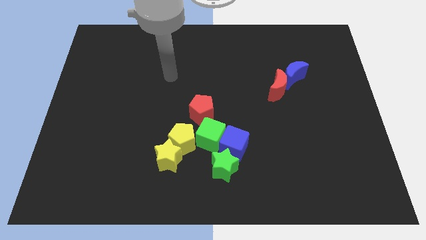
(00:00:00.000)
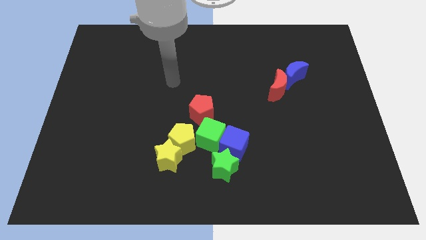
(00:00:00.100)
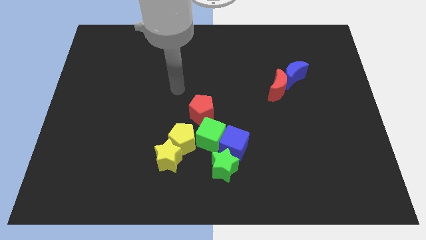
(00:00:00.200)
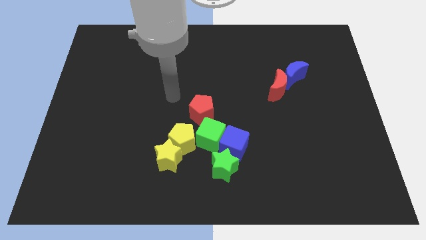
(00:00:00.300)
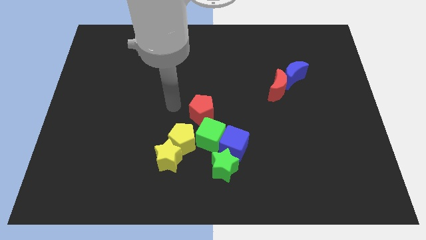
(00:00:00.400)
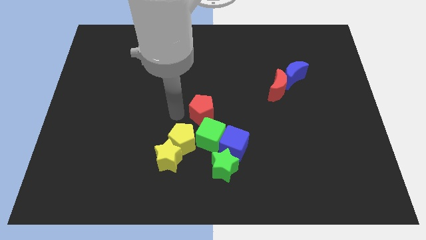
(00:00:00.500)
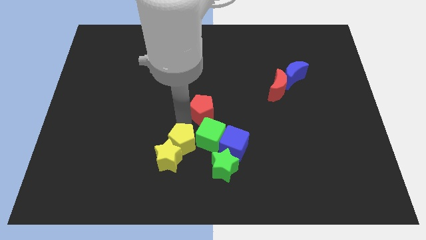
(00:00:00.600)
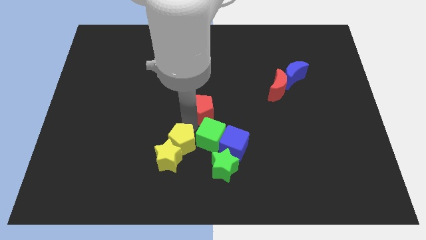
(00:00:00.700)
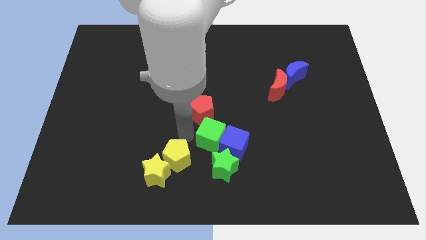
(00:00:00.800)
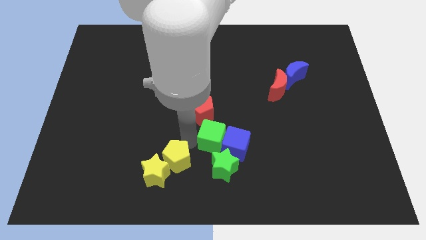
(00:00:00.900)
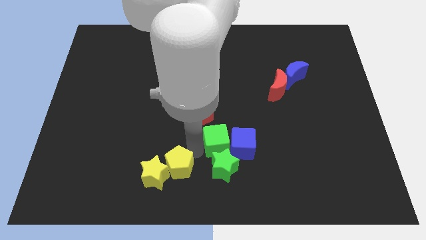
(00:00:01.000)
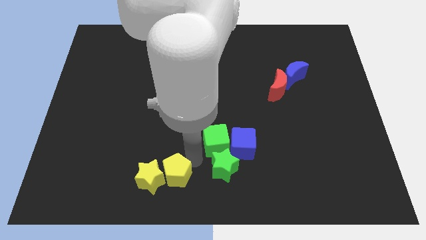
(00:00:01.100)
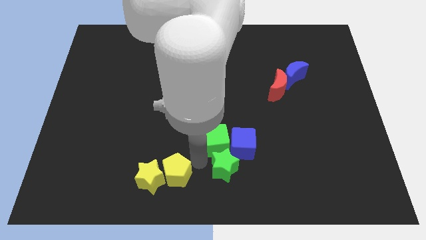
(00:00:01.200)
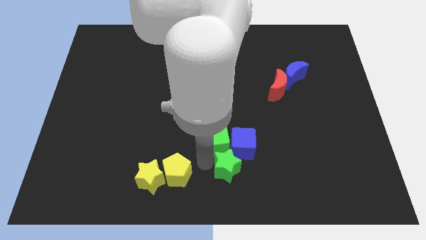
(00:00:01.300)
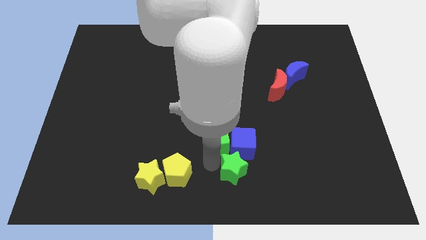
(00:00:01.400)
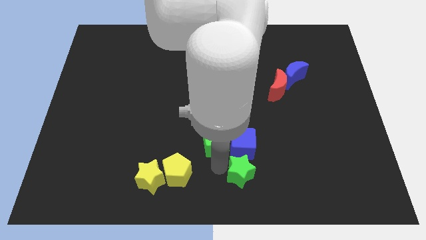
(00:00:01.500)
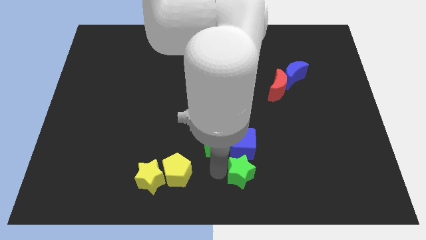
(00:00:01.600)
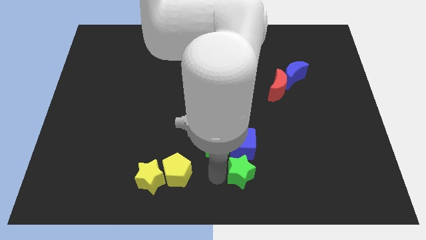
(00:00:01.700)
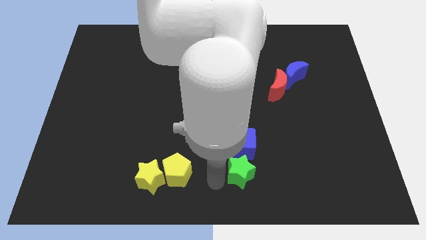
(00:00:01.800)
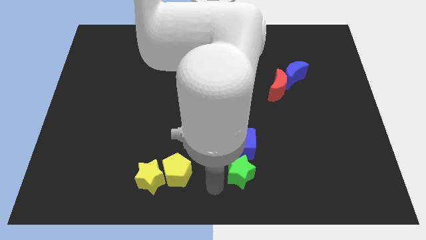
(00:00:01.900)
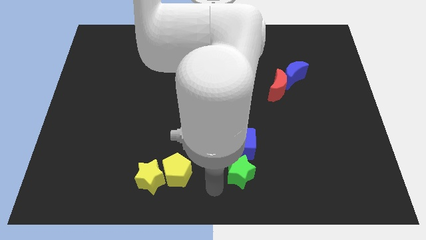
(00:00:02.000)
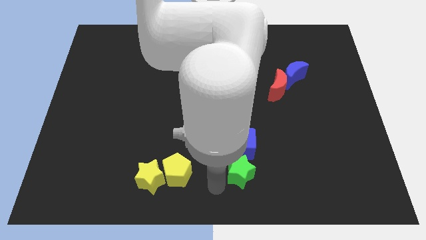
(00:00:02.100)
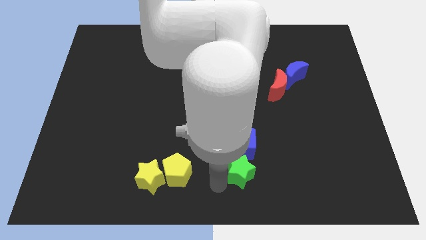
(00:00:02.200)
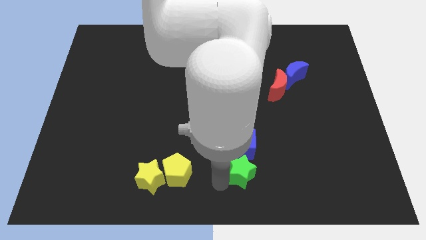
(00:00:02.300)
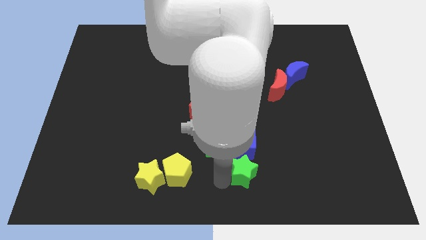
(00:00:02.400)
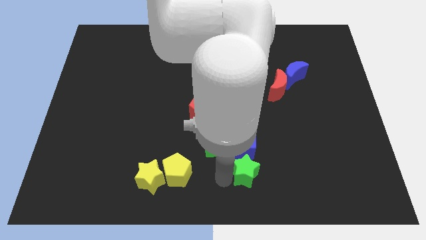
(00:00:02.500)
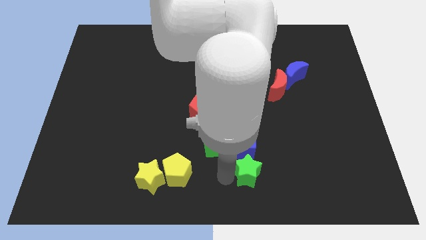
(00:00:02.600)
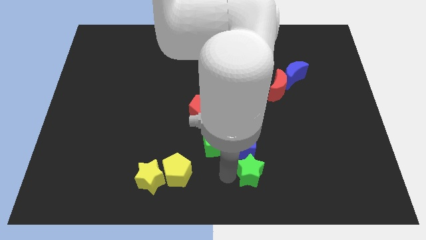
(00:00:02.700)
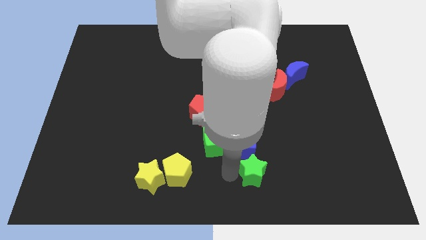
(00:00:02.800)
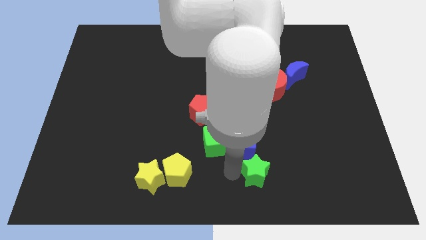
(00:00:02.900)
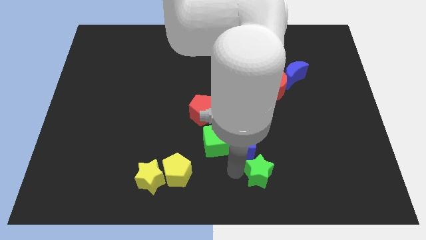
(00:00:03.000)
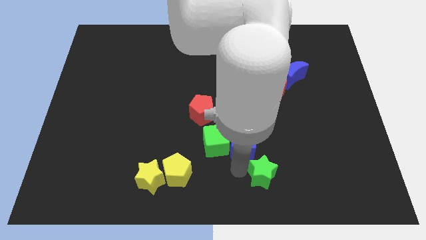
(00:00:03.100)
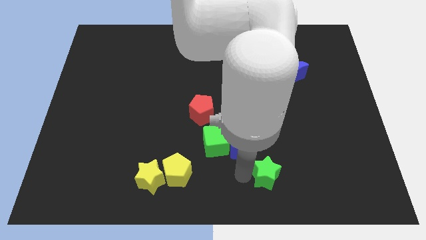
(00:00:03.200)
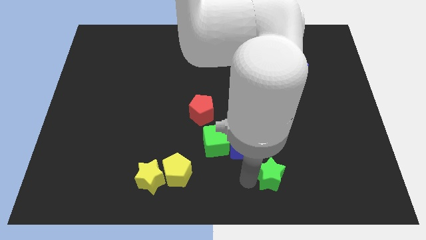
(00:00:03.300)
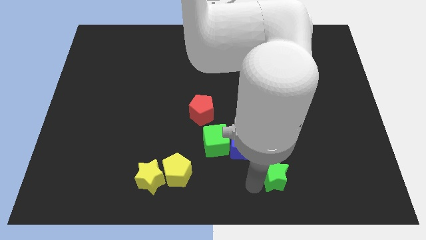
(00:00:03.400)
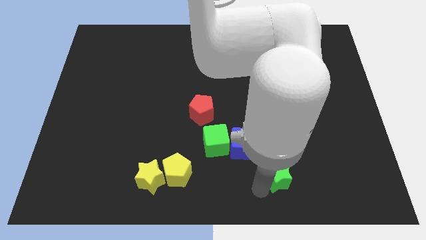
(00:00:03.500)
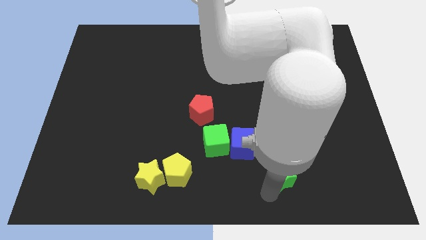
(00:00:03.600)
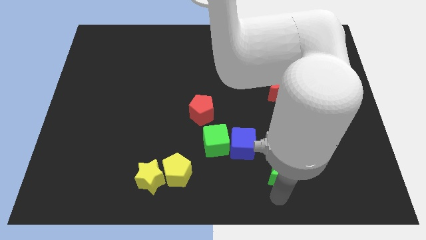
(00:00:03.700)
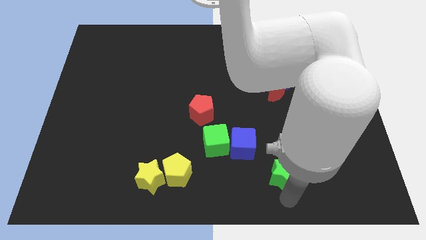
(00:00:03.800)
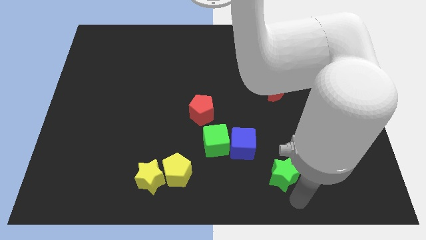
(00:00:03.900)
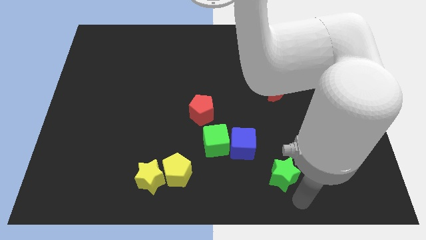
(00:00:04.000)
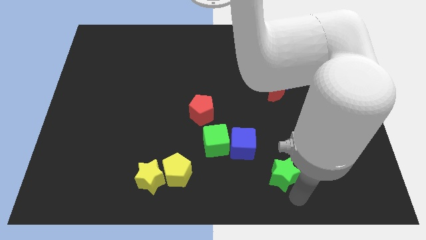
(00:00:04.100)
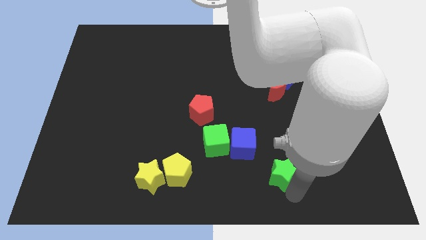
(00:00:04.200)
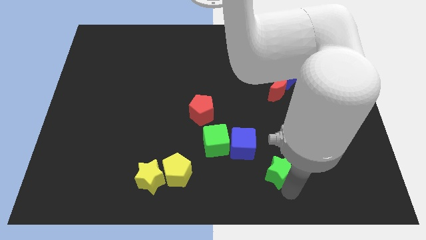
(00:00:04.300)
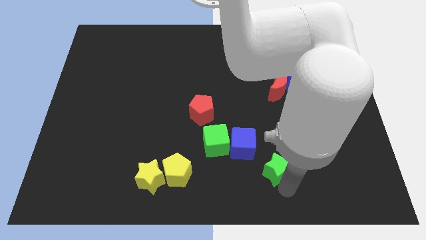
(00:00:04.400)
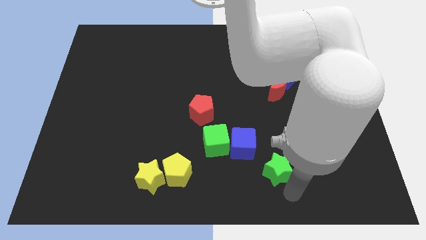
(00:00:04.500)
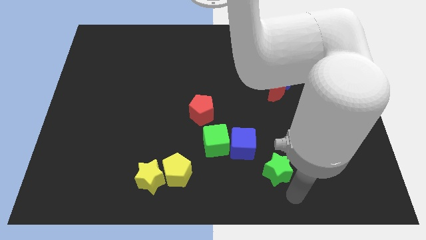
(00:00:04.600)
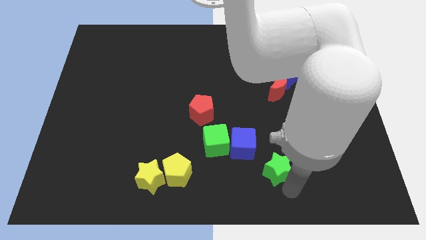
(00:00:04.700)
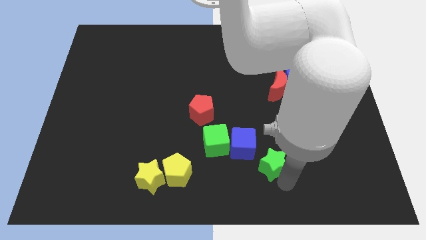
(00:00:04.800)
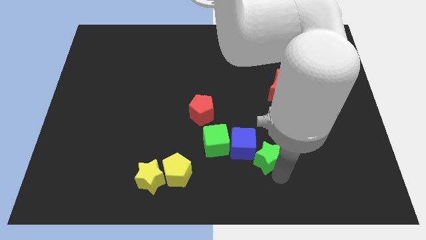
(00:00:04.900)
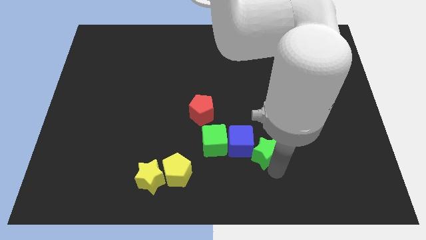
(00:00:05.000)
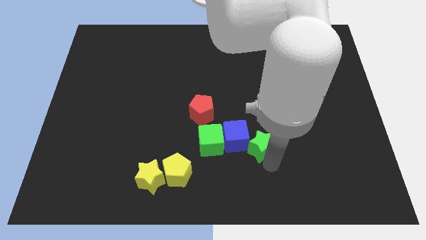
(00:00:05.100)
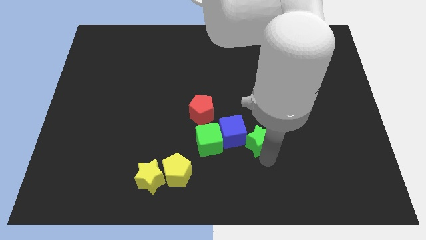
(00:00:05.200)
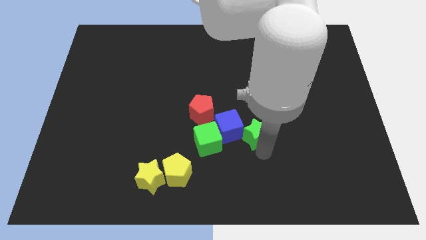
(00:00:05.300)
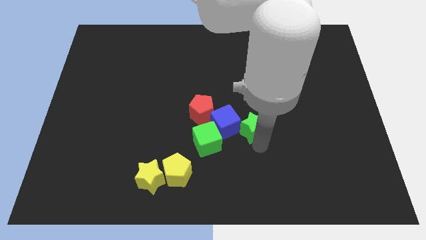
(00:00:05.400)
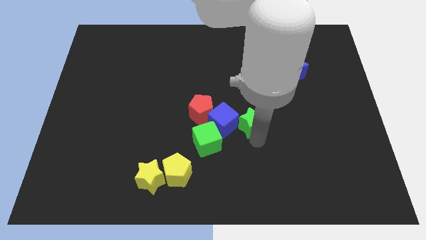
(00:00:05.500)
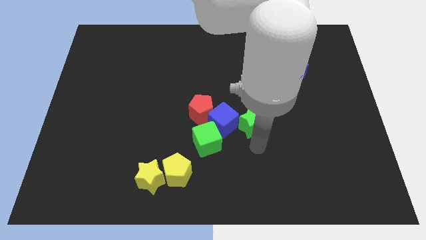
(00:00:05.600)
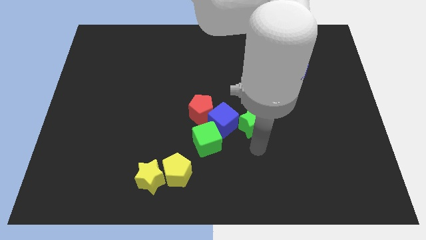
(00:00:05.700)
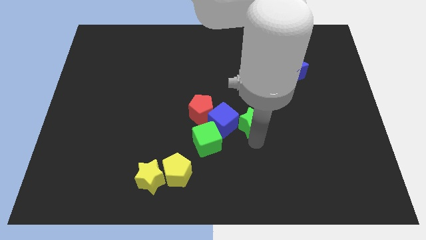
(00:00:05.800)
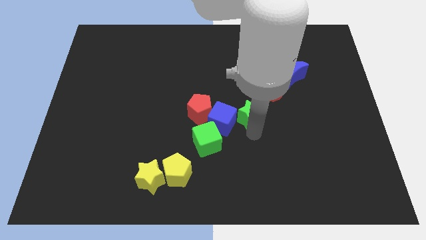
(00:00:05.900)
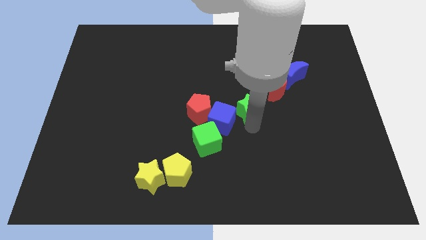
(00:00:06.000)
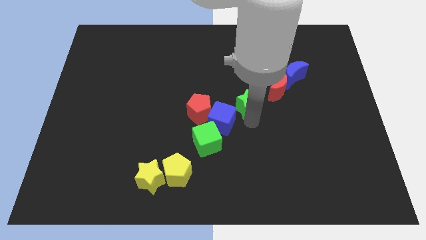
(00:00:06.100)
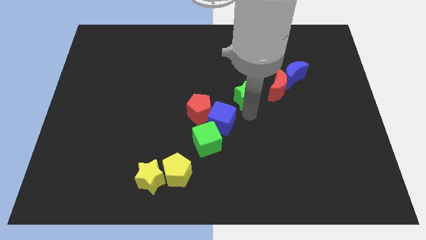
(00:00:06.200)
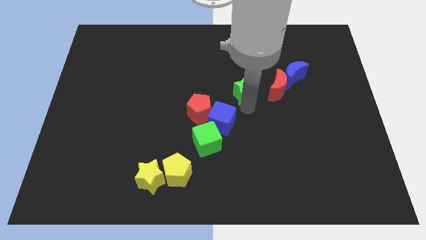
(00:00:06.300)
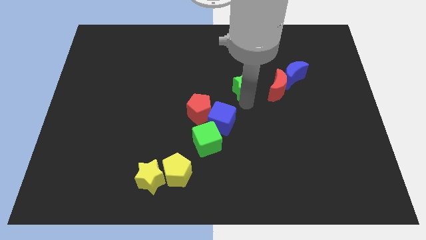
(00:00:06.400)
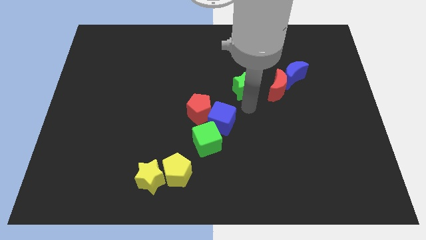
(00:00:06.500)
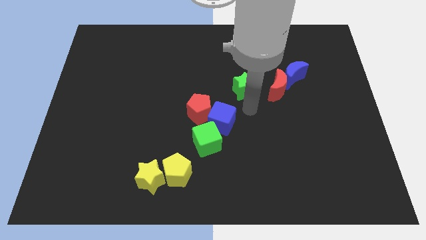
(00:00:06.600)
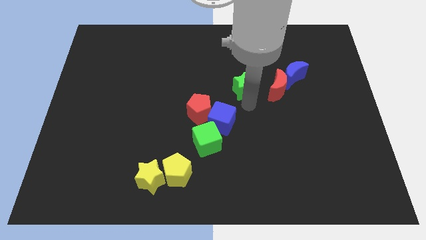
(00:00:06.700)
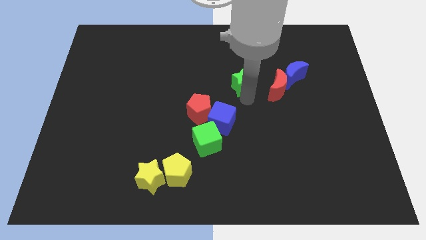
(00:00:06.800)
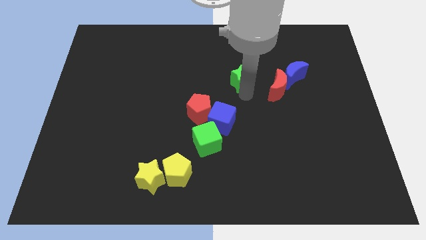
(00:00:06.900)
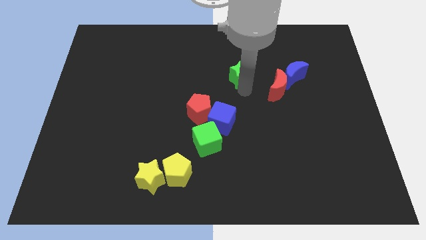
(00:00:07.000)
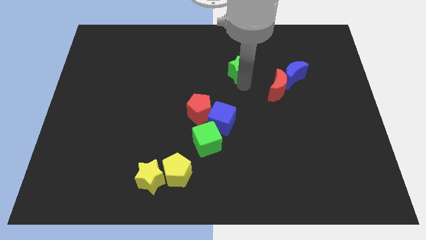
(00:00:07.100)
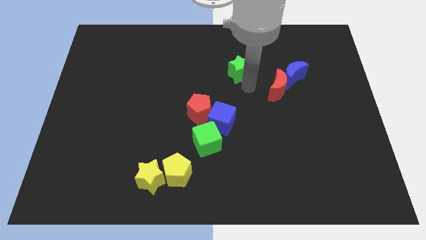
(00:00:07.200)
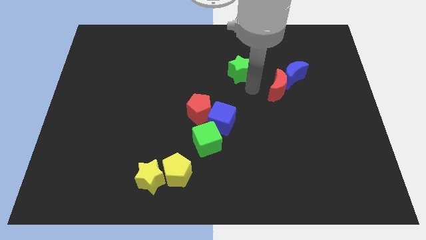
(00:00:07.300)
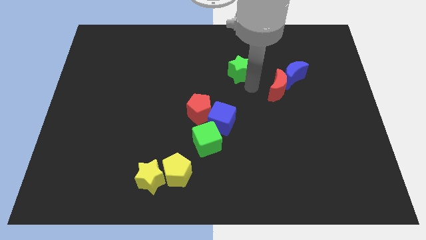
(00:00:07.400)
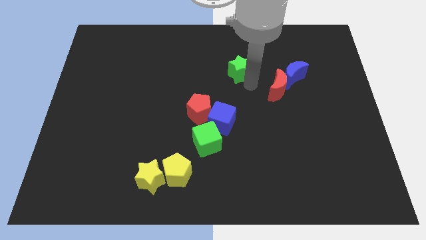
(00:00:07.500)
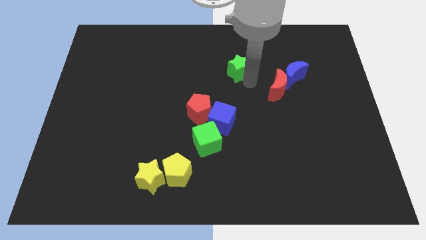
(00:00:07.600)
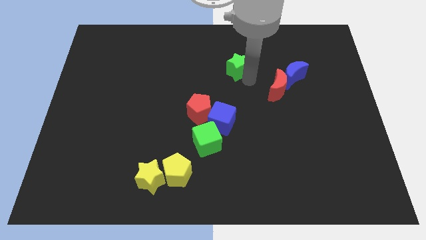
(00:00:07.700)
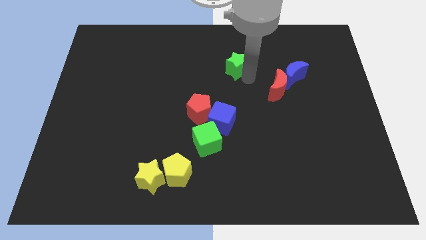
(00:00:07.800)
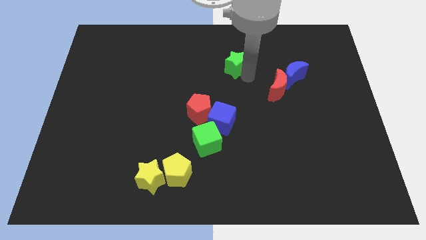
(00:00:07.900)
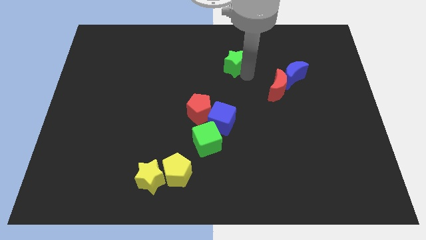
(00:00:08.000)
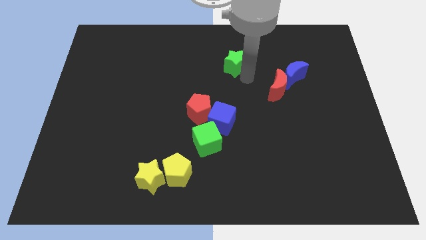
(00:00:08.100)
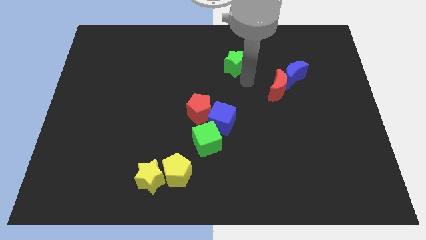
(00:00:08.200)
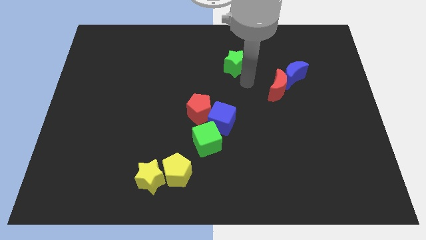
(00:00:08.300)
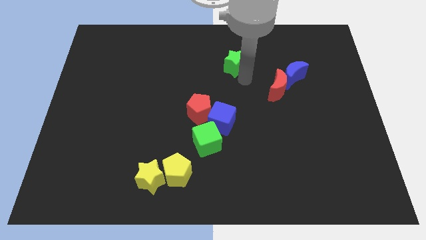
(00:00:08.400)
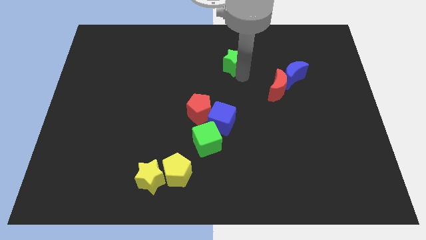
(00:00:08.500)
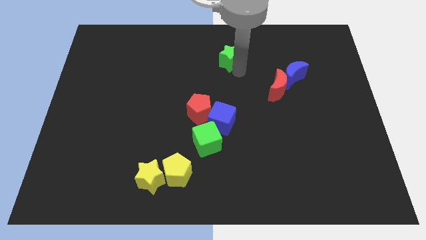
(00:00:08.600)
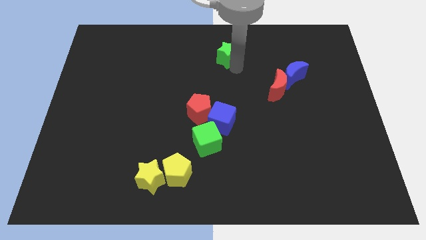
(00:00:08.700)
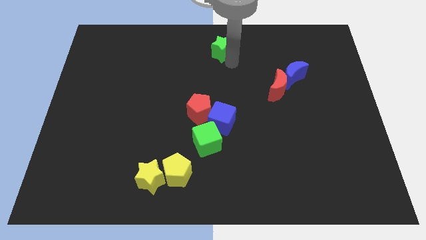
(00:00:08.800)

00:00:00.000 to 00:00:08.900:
push the green star to the top side
